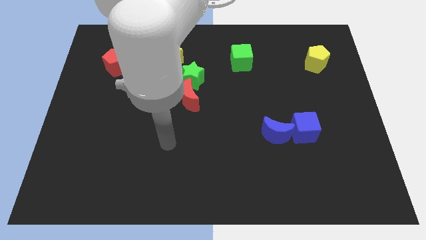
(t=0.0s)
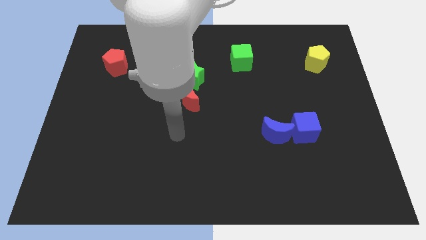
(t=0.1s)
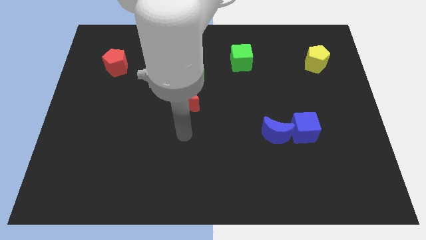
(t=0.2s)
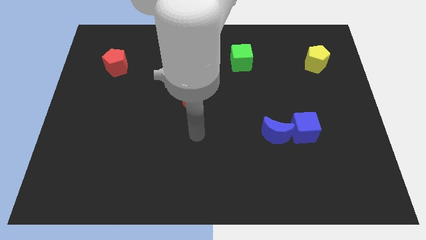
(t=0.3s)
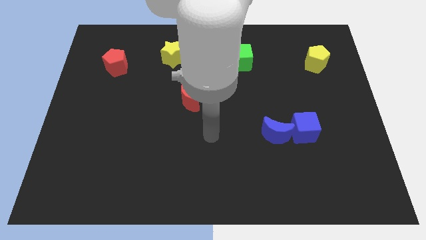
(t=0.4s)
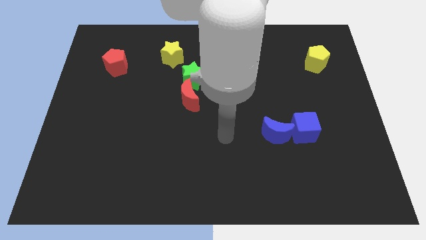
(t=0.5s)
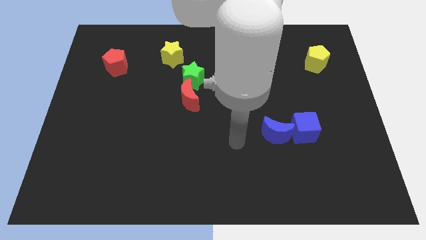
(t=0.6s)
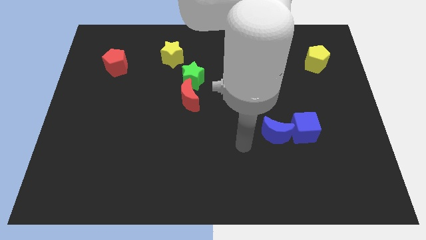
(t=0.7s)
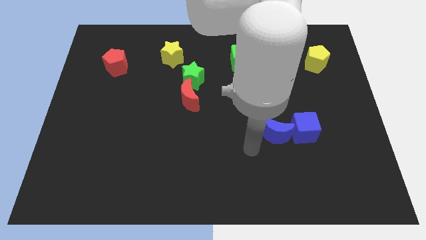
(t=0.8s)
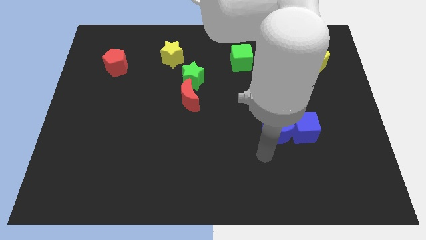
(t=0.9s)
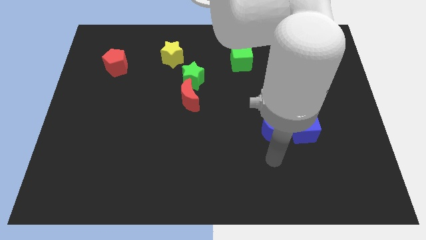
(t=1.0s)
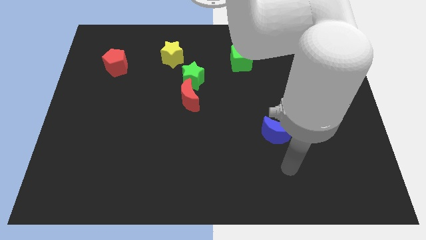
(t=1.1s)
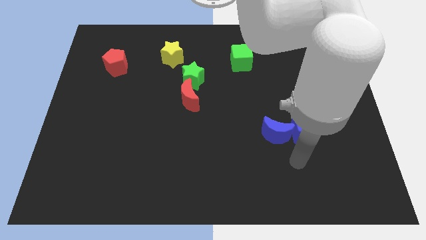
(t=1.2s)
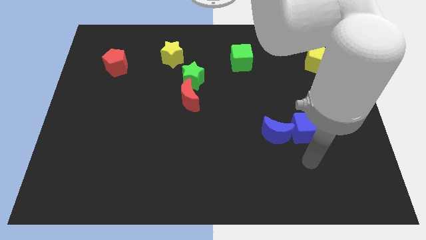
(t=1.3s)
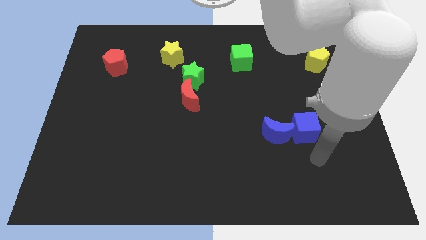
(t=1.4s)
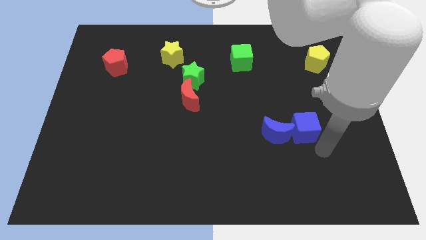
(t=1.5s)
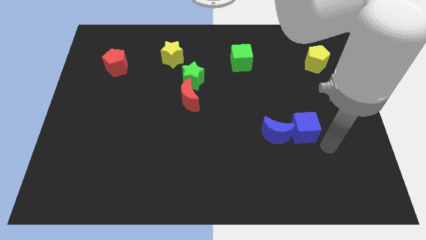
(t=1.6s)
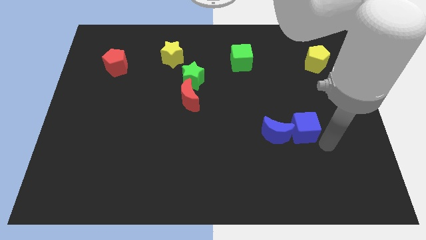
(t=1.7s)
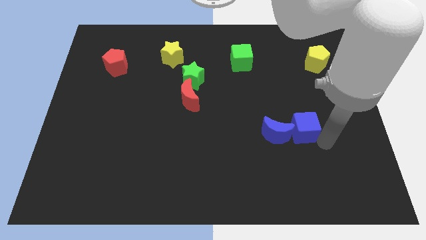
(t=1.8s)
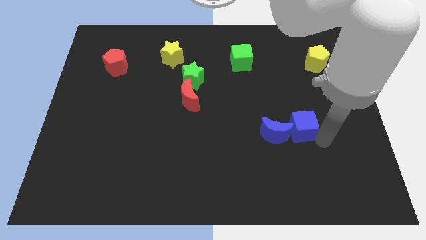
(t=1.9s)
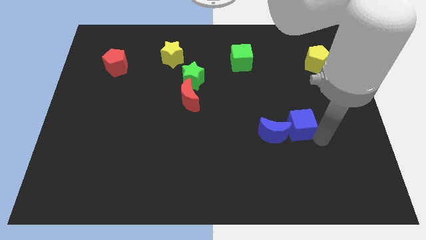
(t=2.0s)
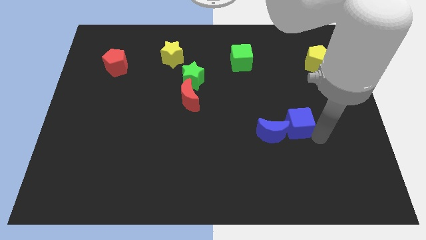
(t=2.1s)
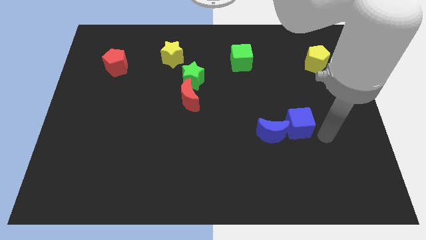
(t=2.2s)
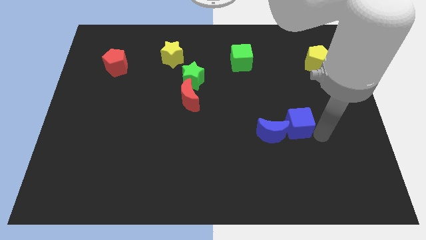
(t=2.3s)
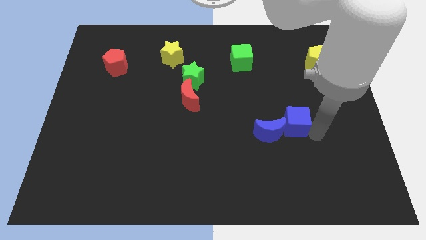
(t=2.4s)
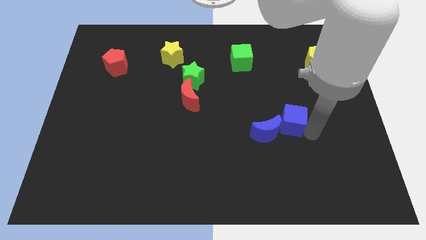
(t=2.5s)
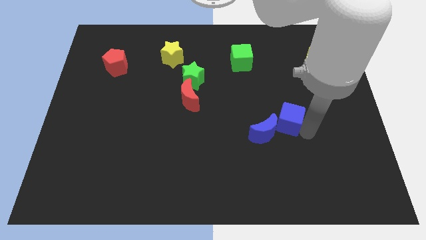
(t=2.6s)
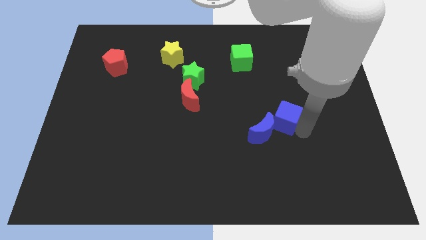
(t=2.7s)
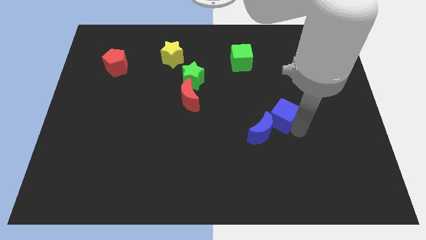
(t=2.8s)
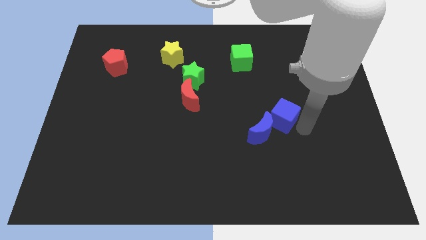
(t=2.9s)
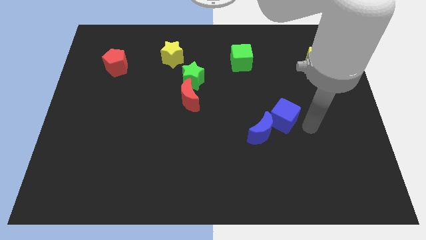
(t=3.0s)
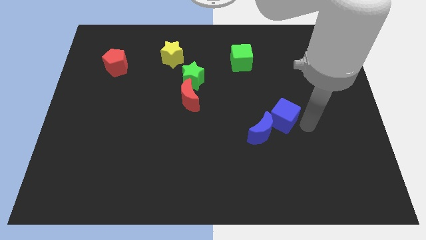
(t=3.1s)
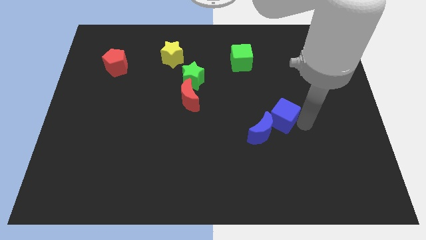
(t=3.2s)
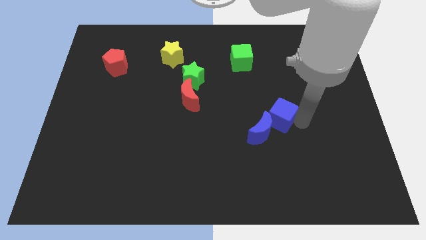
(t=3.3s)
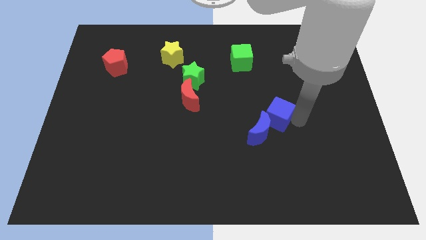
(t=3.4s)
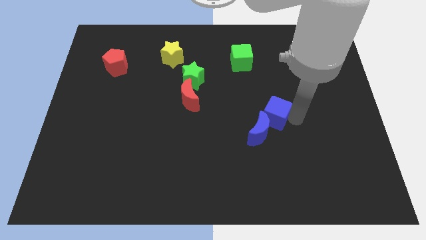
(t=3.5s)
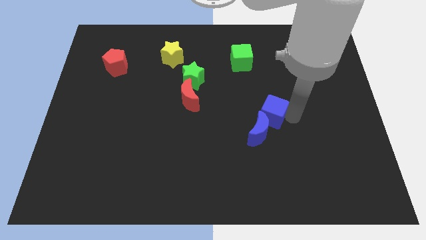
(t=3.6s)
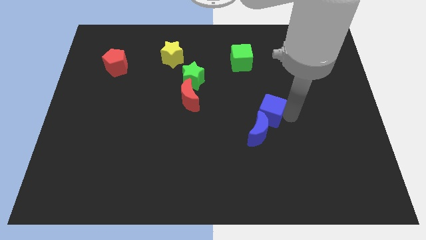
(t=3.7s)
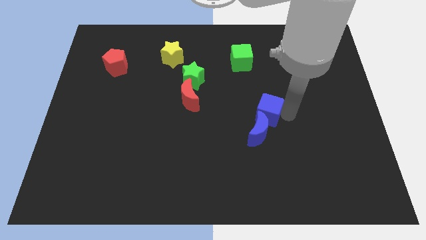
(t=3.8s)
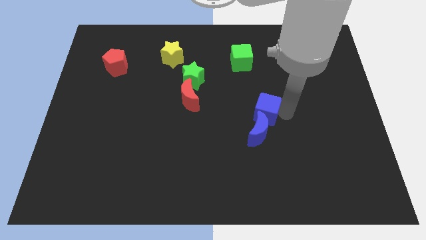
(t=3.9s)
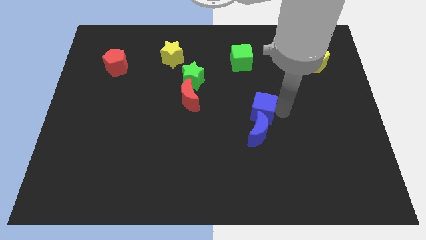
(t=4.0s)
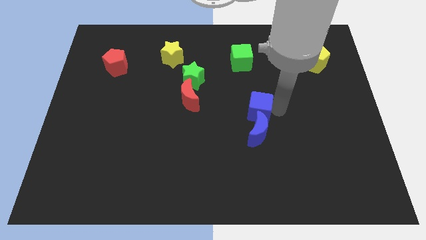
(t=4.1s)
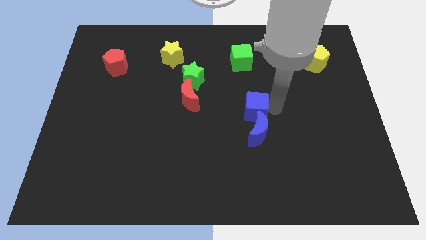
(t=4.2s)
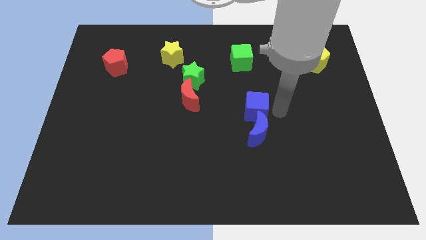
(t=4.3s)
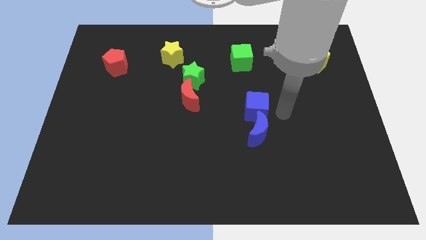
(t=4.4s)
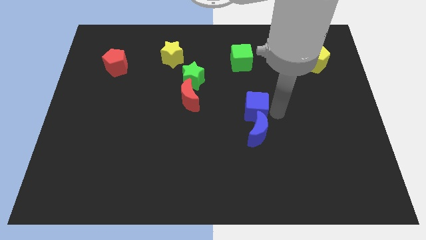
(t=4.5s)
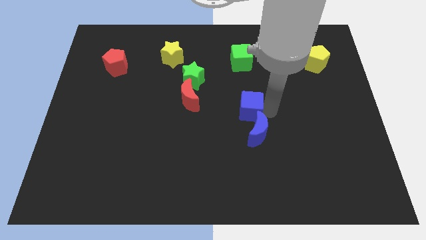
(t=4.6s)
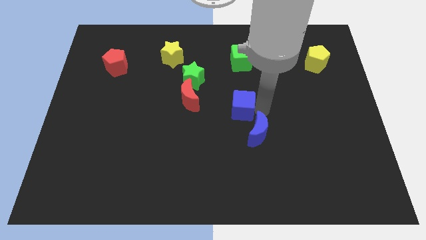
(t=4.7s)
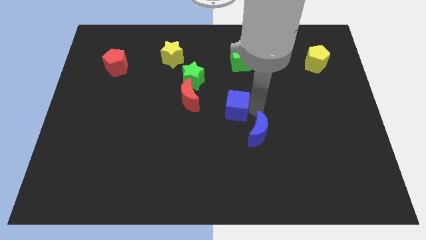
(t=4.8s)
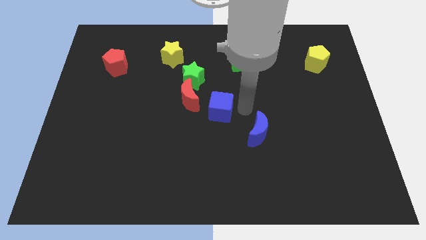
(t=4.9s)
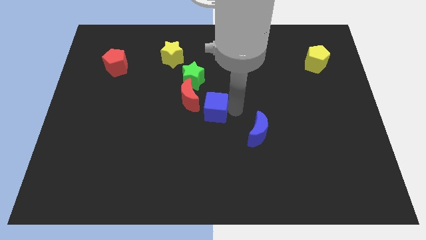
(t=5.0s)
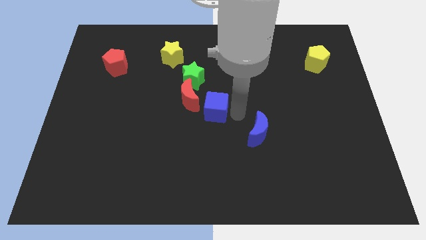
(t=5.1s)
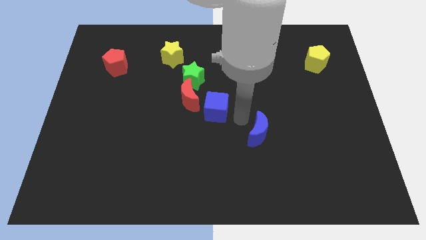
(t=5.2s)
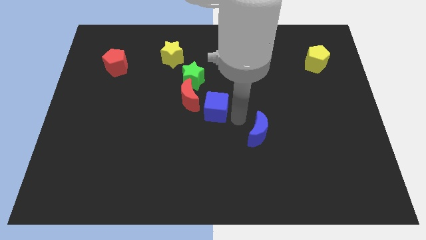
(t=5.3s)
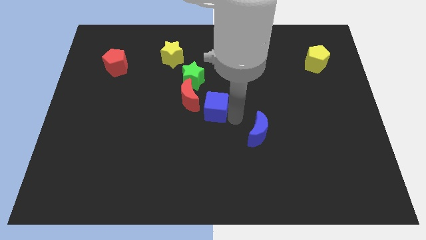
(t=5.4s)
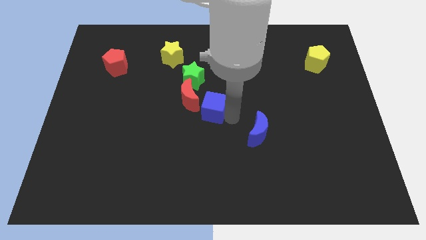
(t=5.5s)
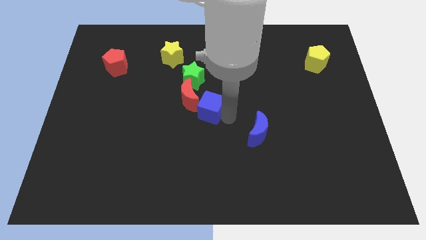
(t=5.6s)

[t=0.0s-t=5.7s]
slide the blue cube towards the red moon

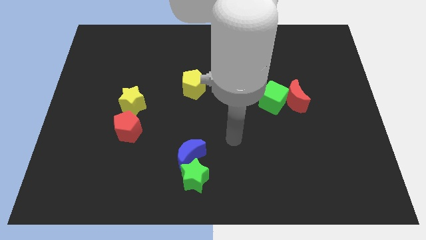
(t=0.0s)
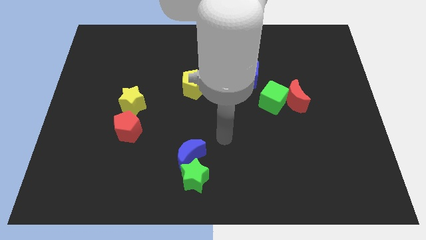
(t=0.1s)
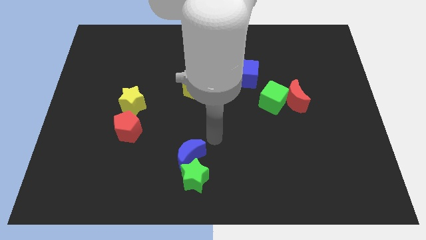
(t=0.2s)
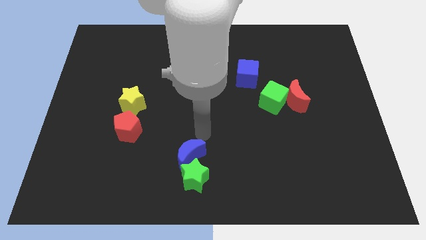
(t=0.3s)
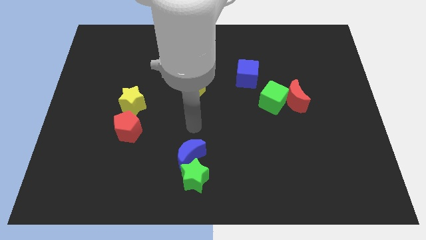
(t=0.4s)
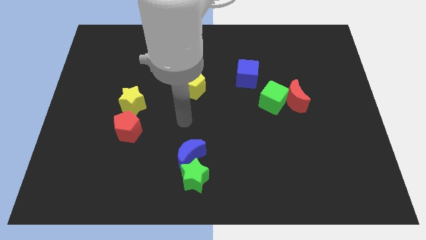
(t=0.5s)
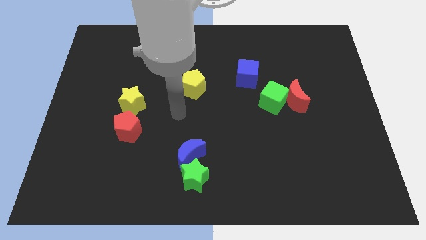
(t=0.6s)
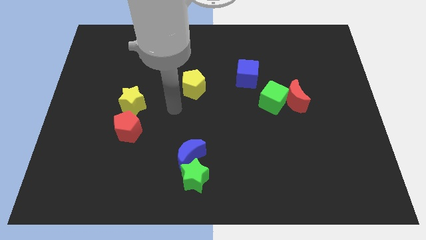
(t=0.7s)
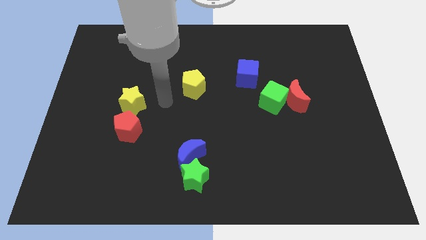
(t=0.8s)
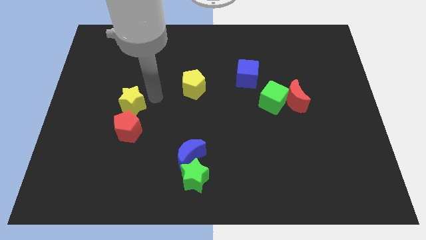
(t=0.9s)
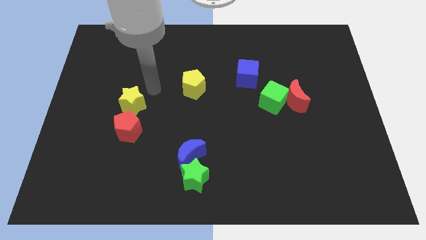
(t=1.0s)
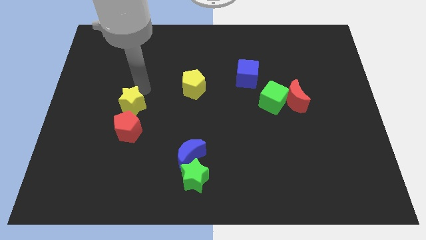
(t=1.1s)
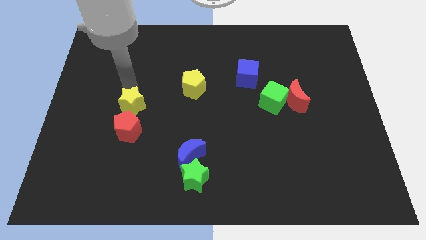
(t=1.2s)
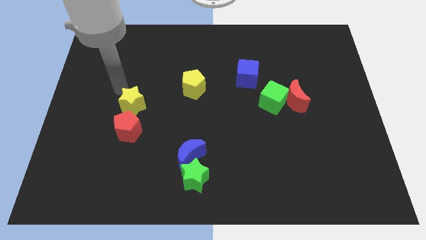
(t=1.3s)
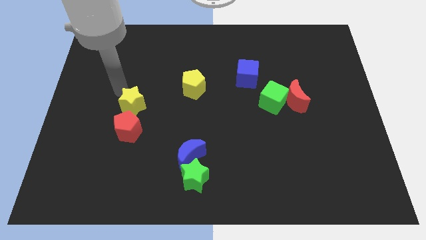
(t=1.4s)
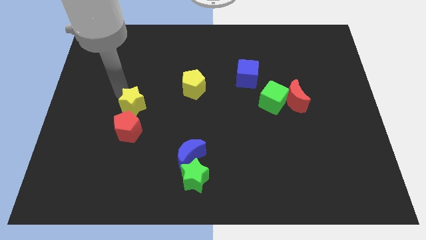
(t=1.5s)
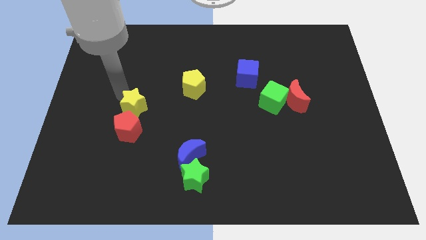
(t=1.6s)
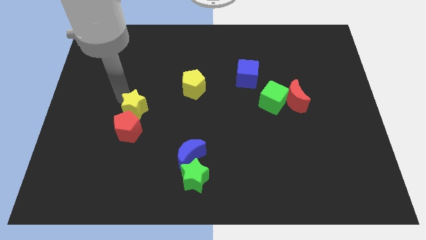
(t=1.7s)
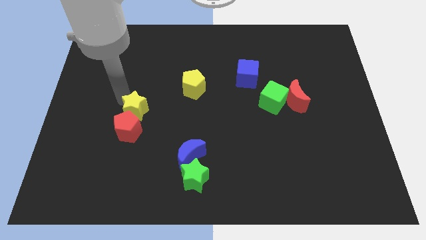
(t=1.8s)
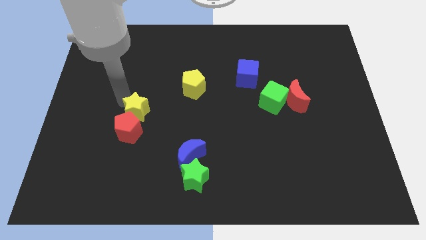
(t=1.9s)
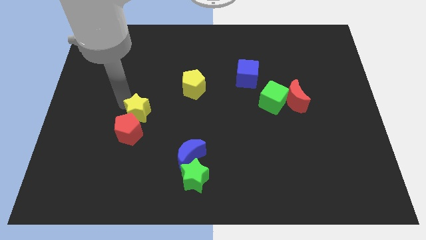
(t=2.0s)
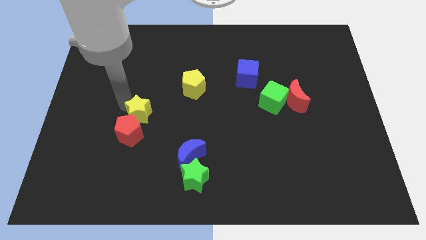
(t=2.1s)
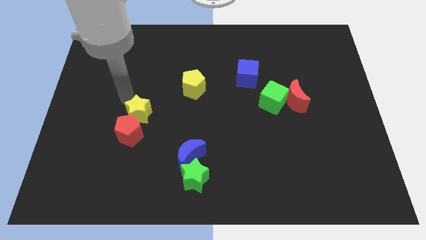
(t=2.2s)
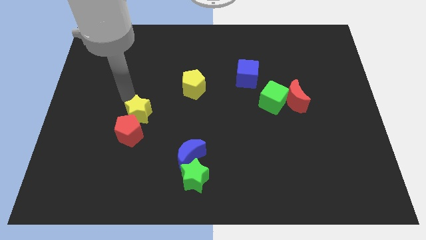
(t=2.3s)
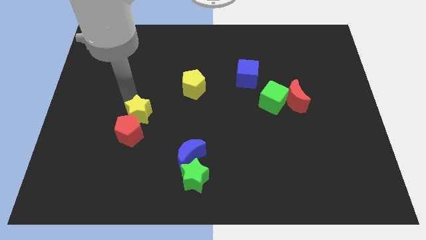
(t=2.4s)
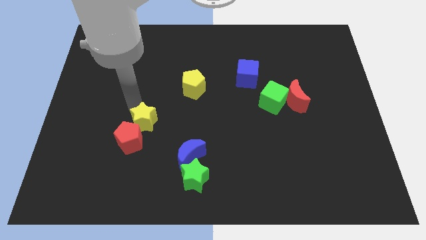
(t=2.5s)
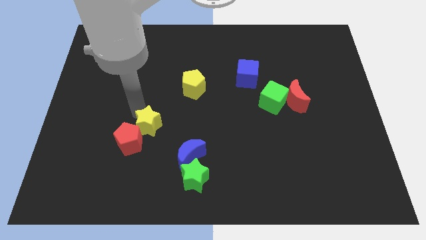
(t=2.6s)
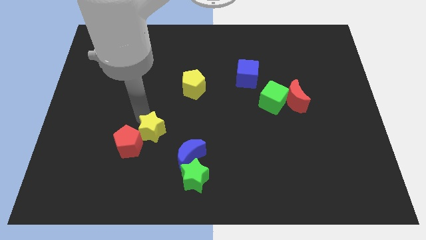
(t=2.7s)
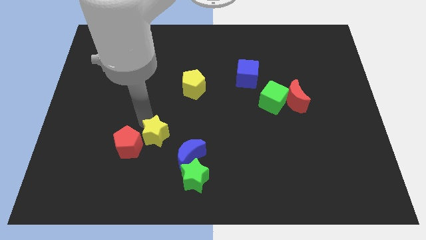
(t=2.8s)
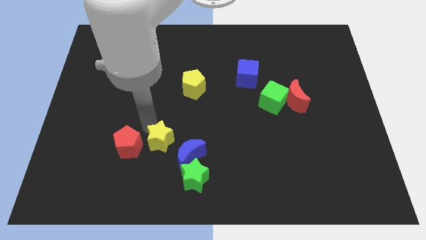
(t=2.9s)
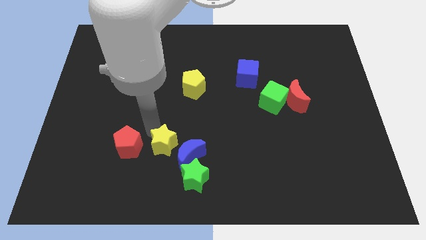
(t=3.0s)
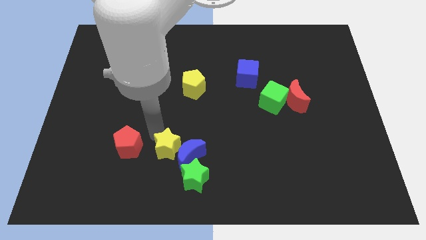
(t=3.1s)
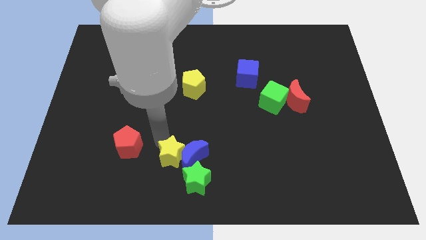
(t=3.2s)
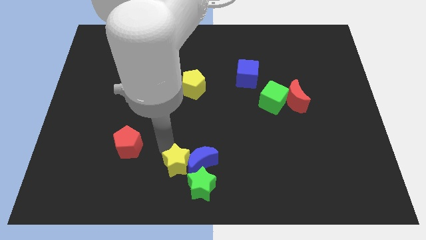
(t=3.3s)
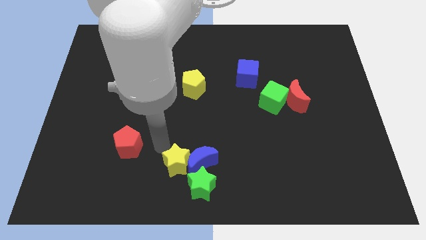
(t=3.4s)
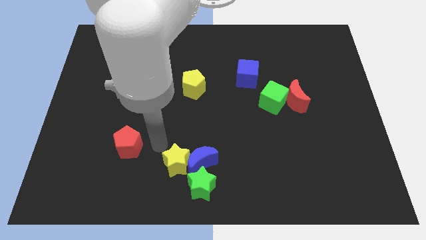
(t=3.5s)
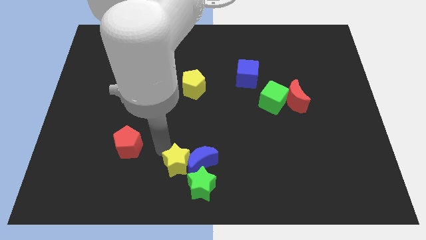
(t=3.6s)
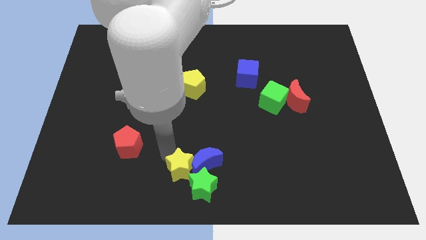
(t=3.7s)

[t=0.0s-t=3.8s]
move the yellow star towards the green star
